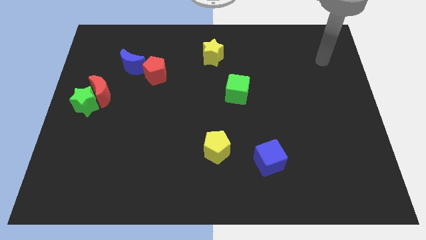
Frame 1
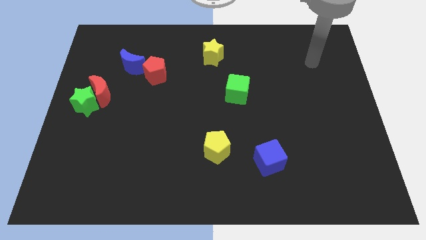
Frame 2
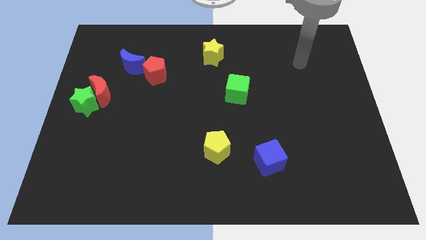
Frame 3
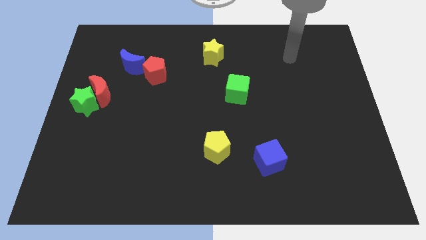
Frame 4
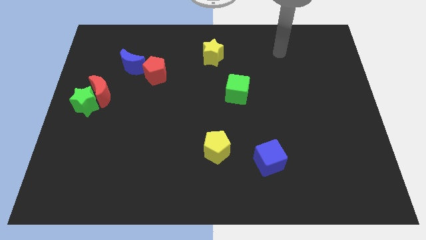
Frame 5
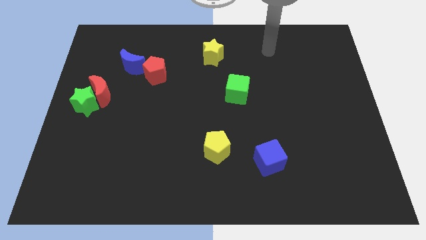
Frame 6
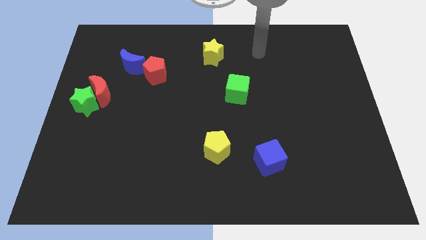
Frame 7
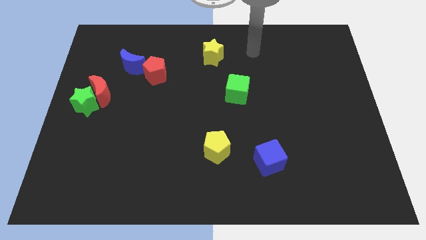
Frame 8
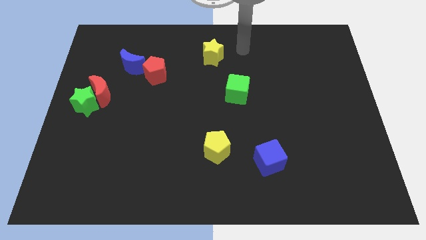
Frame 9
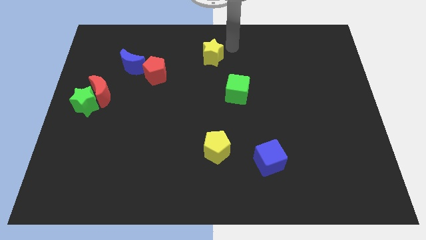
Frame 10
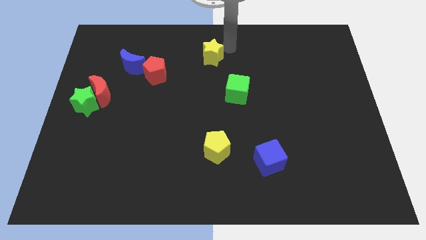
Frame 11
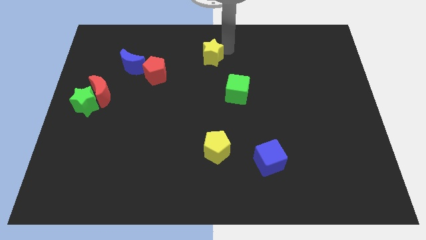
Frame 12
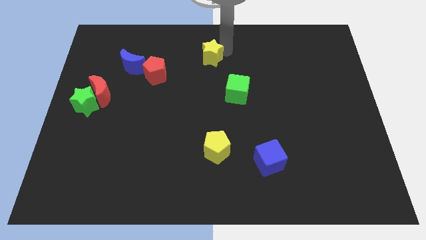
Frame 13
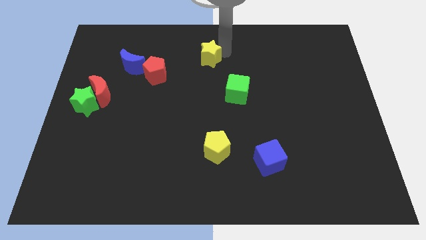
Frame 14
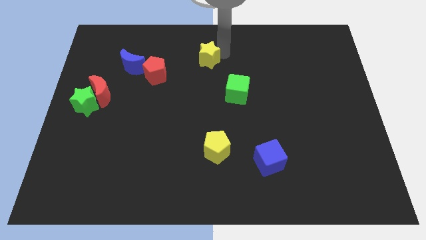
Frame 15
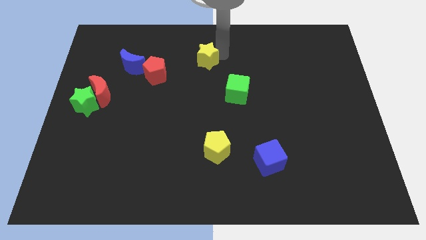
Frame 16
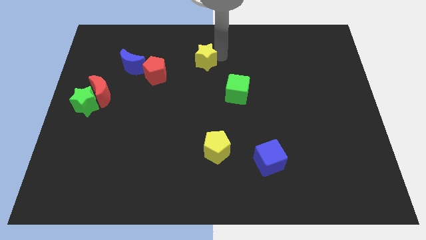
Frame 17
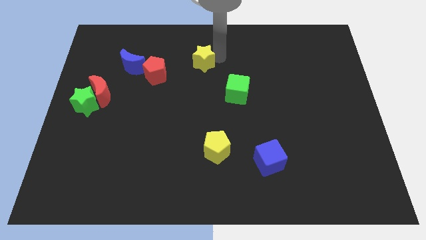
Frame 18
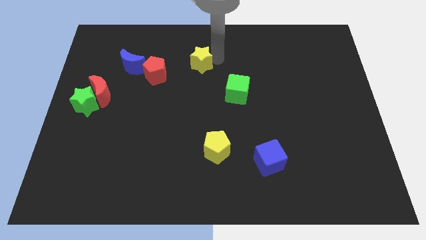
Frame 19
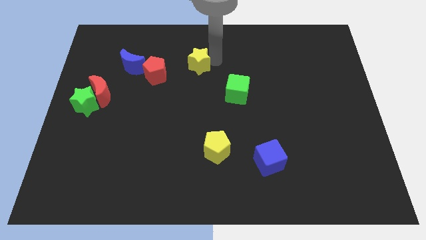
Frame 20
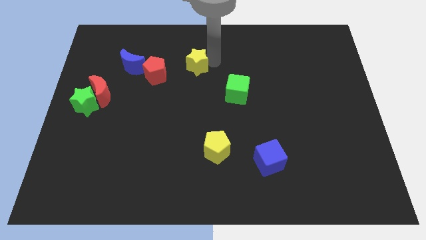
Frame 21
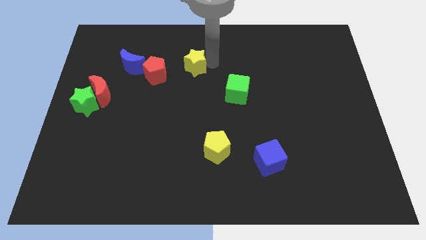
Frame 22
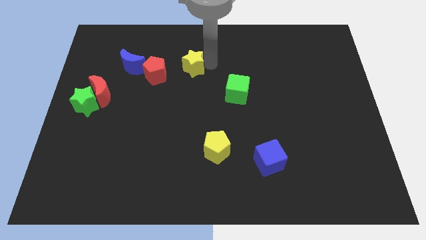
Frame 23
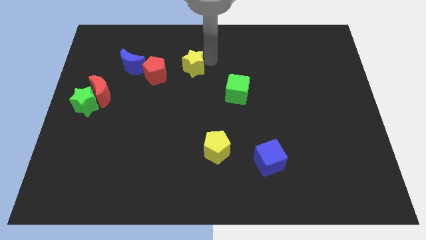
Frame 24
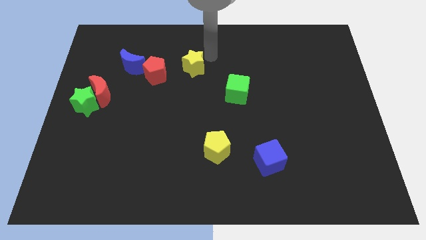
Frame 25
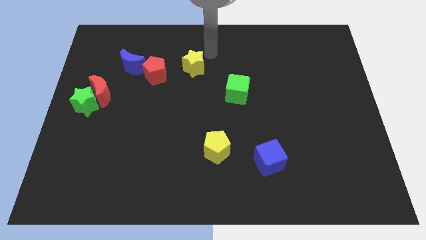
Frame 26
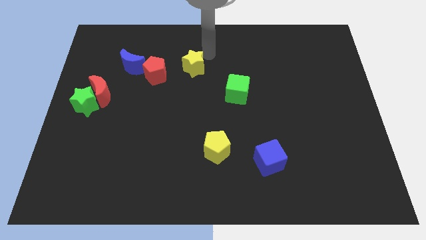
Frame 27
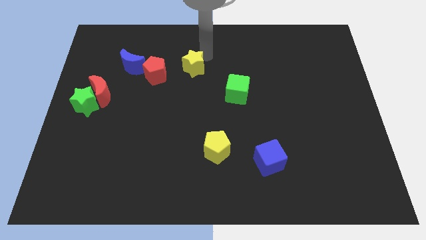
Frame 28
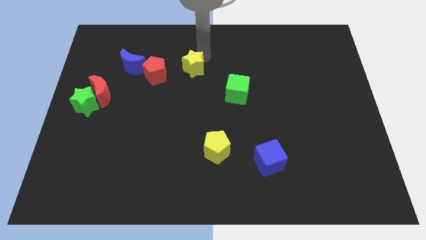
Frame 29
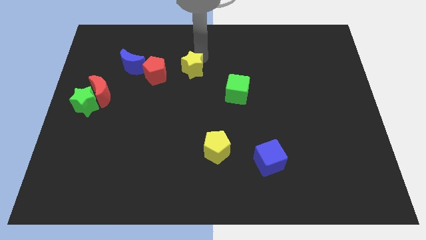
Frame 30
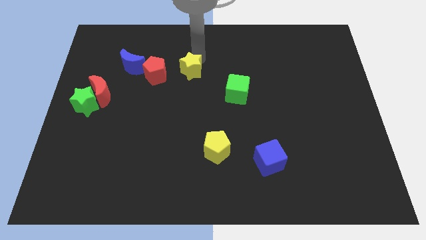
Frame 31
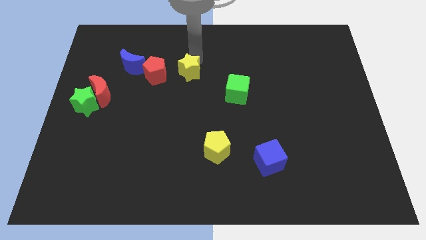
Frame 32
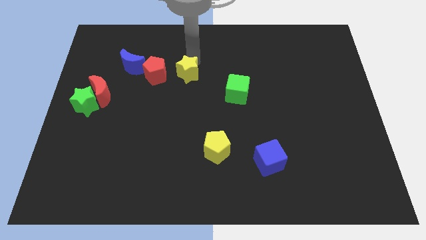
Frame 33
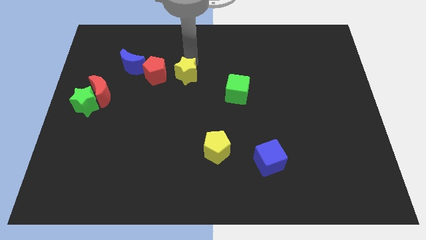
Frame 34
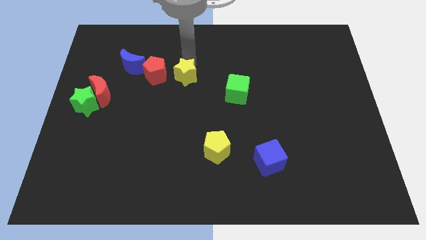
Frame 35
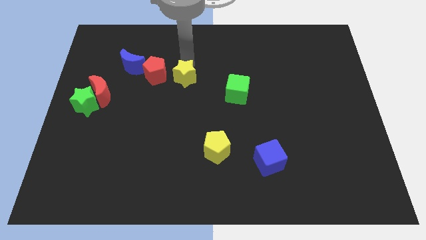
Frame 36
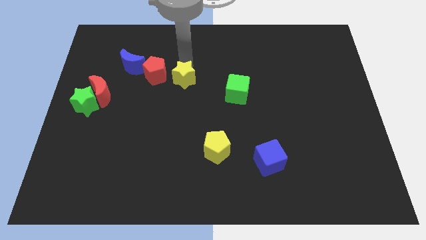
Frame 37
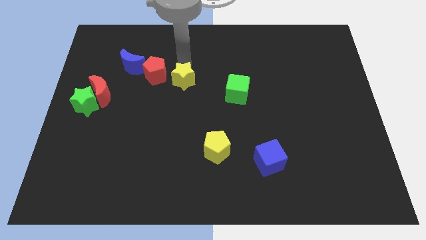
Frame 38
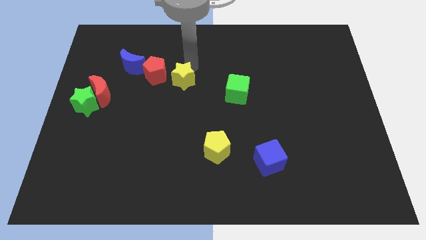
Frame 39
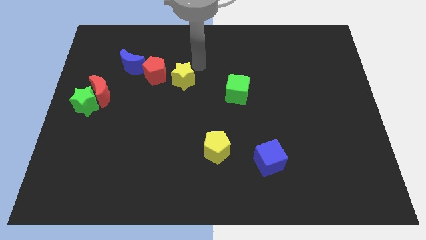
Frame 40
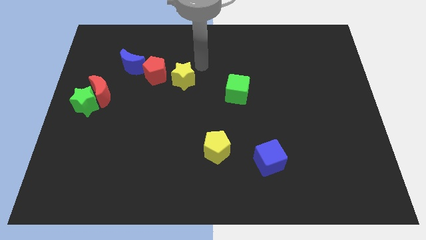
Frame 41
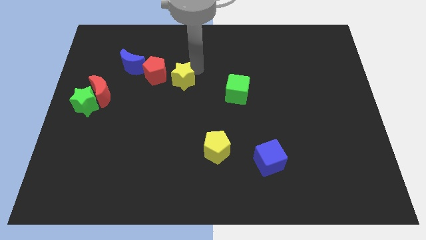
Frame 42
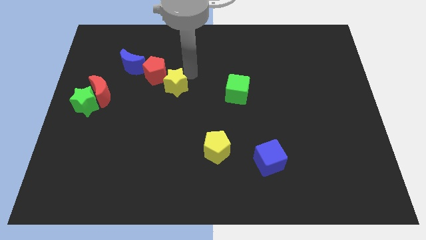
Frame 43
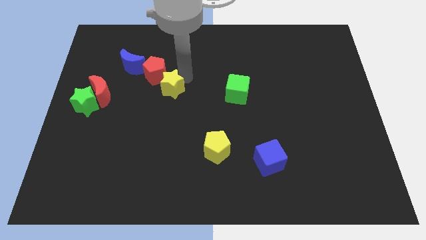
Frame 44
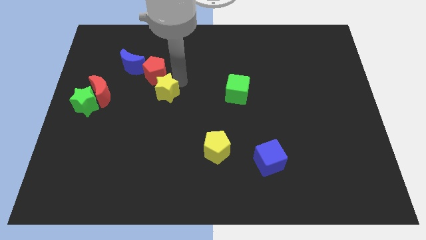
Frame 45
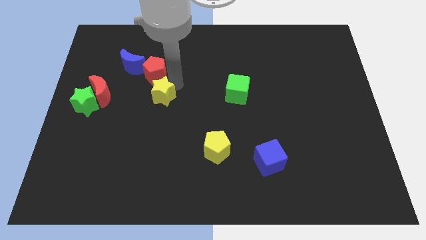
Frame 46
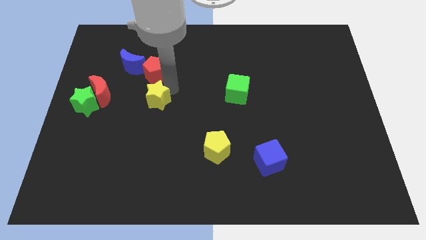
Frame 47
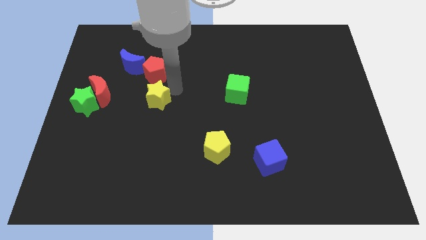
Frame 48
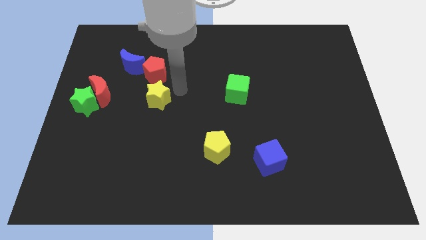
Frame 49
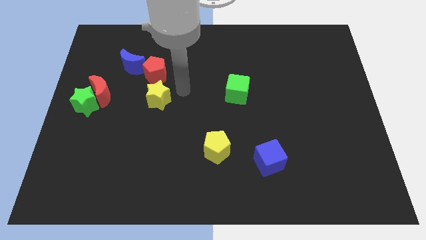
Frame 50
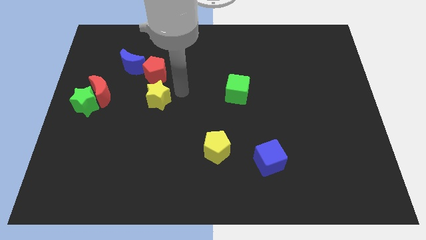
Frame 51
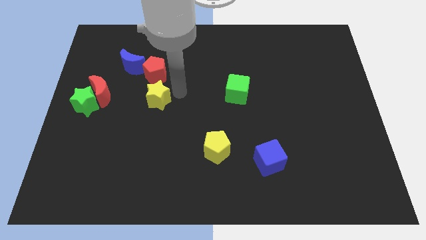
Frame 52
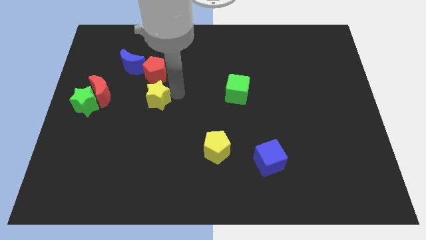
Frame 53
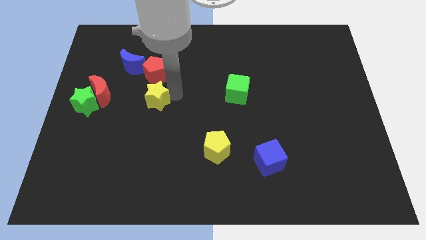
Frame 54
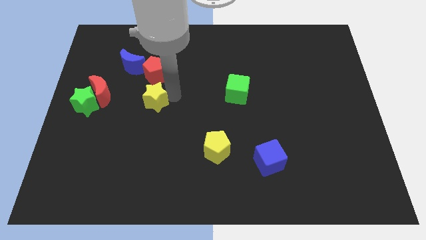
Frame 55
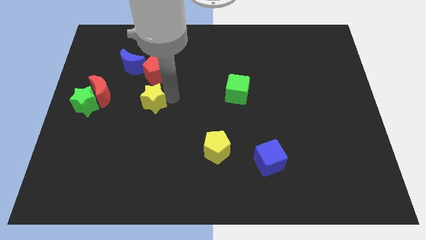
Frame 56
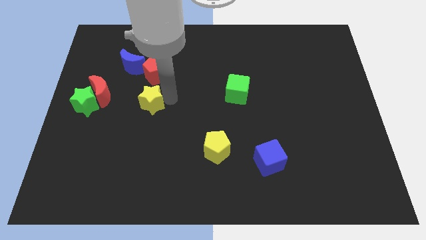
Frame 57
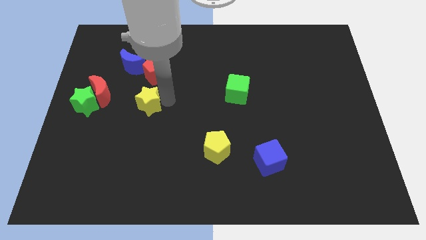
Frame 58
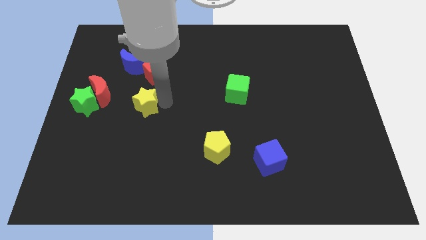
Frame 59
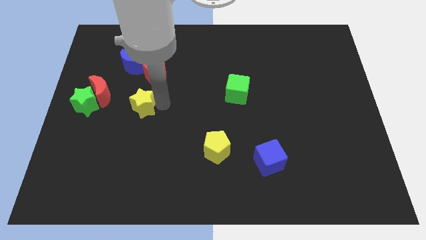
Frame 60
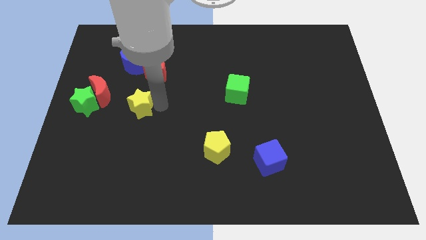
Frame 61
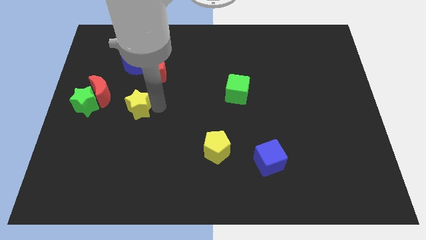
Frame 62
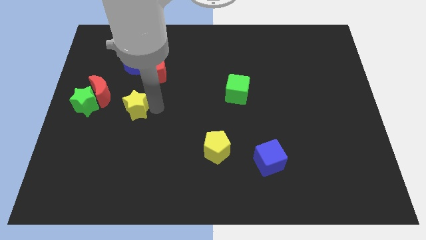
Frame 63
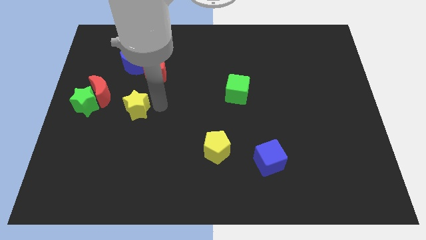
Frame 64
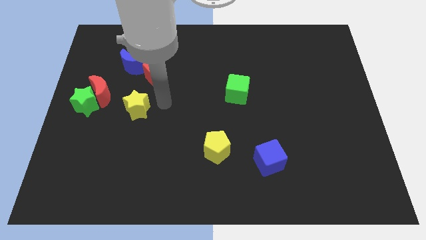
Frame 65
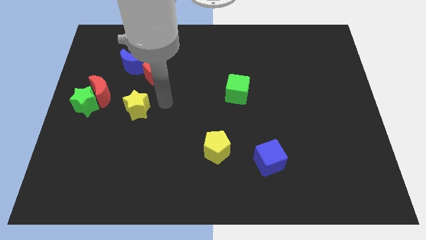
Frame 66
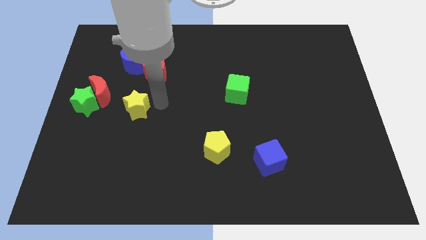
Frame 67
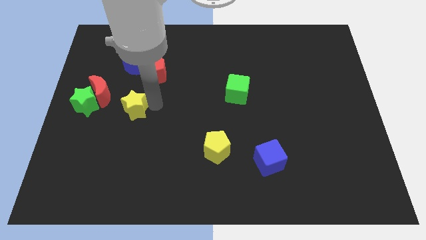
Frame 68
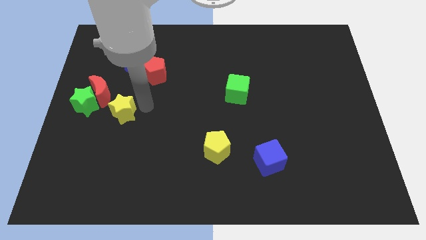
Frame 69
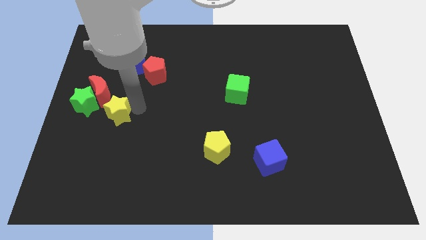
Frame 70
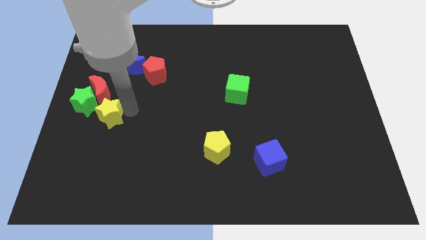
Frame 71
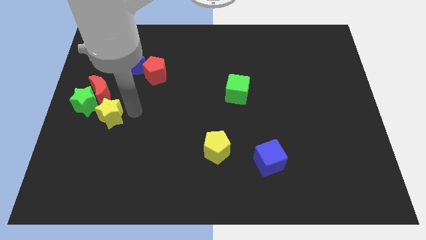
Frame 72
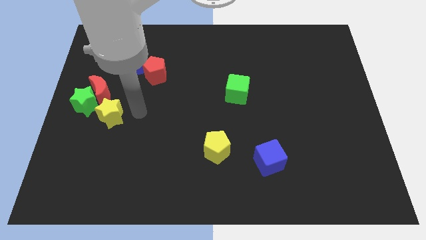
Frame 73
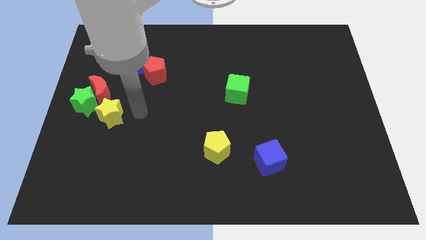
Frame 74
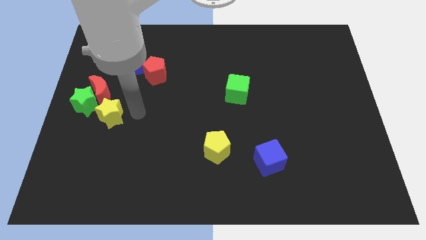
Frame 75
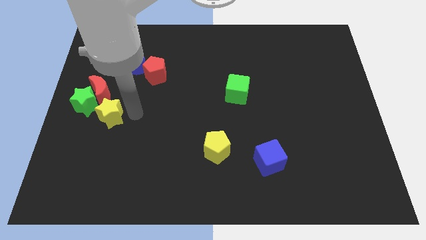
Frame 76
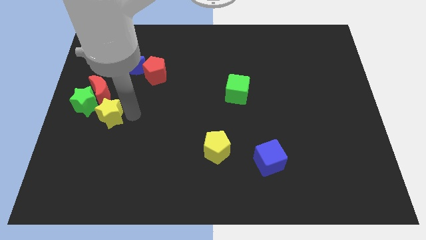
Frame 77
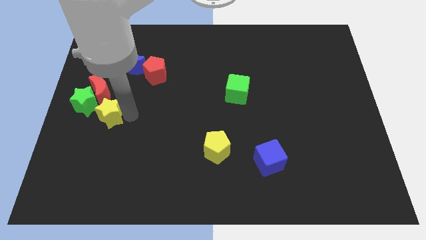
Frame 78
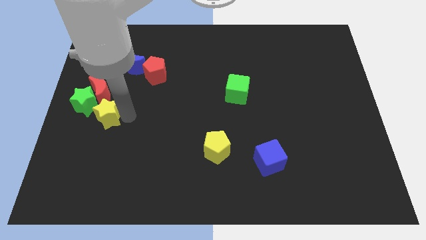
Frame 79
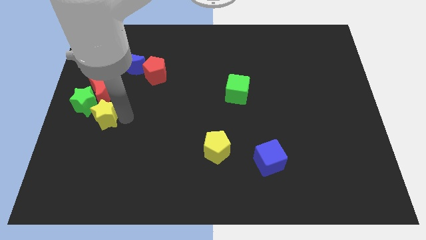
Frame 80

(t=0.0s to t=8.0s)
move the yellow star towards the green star
